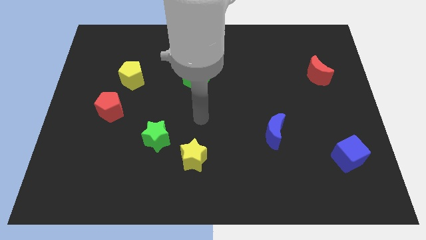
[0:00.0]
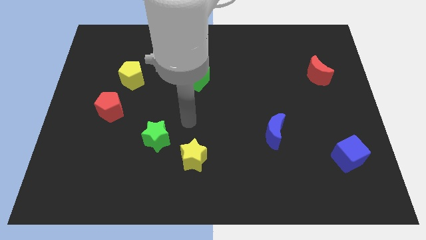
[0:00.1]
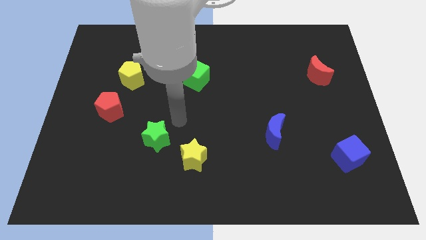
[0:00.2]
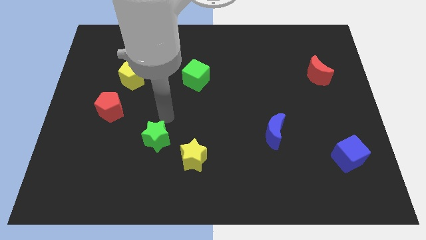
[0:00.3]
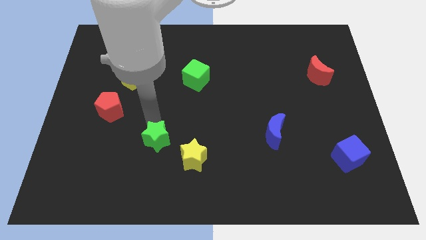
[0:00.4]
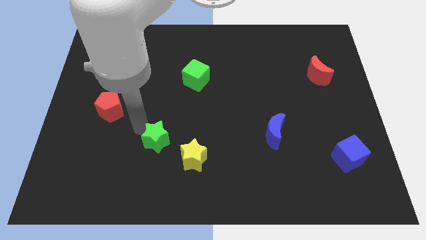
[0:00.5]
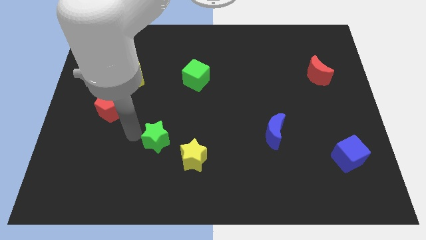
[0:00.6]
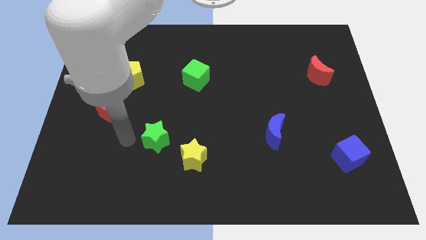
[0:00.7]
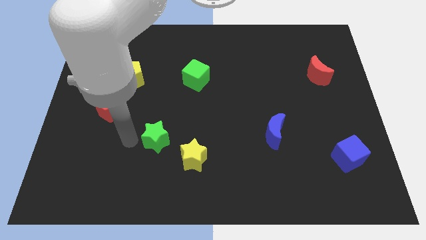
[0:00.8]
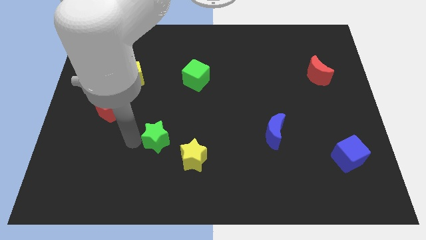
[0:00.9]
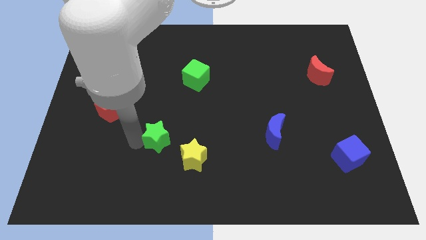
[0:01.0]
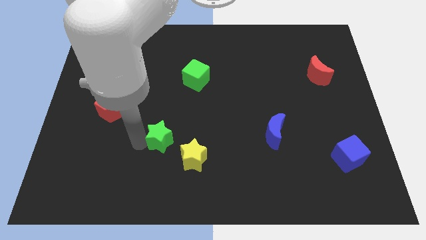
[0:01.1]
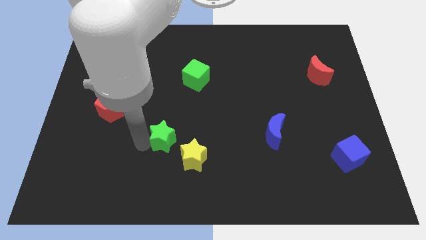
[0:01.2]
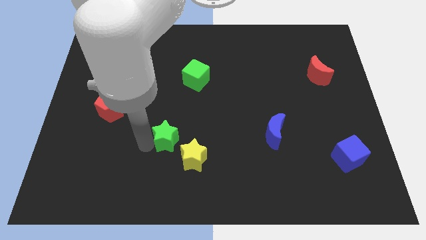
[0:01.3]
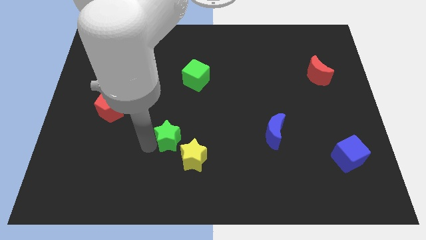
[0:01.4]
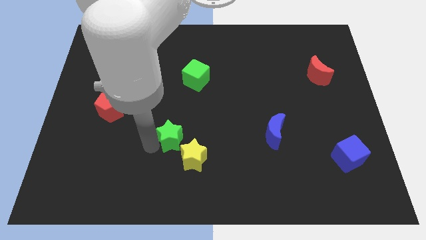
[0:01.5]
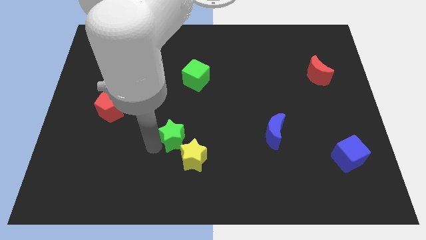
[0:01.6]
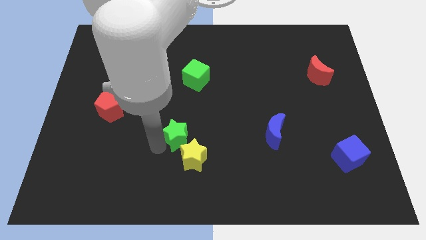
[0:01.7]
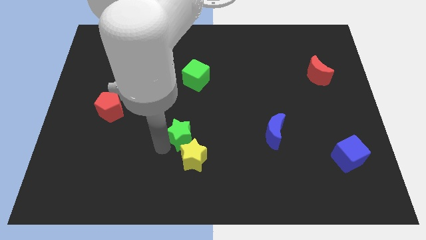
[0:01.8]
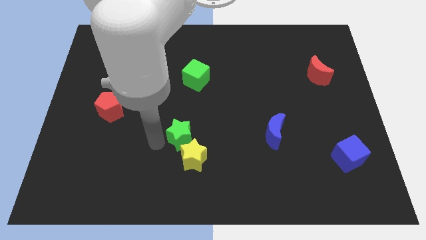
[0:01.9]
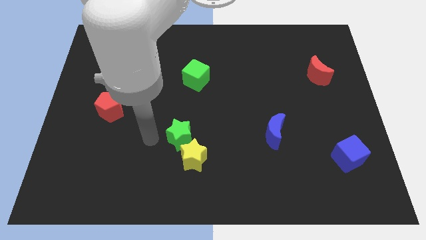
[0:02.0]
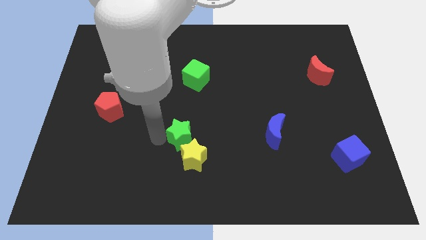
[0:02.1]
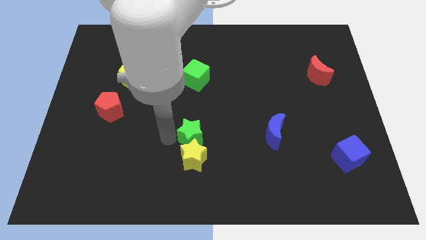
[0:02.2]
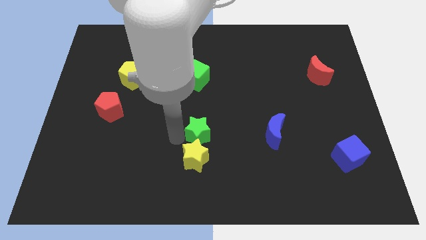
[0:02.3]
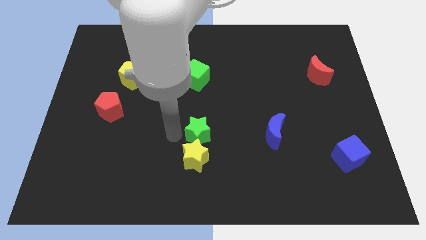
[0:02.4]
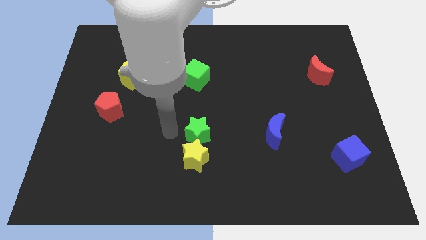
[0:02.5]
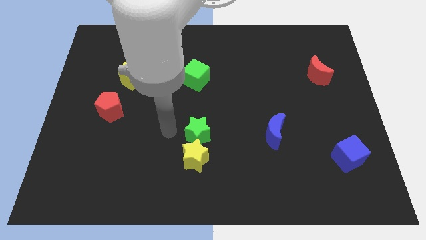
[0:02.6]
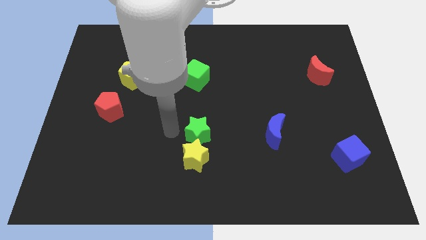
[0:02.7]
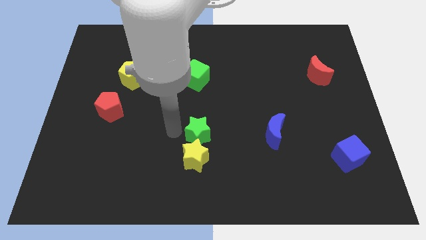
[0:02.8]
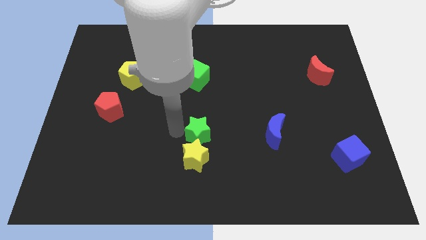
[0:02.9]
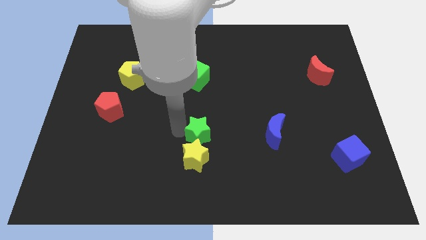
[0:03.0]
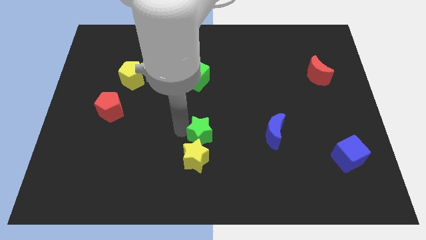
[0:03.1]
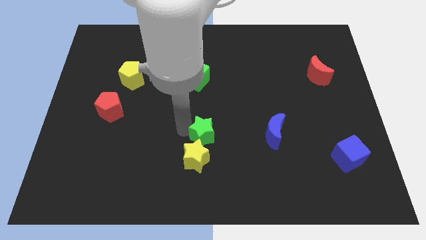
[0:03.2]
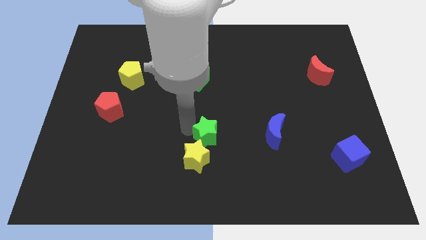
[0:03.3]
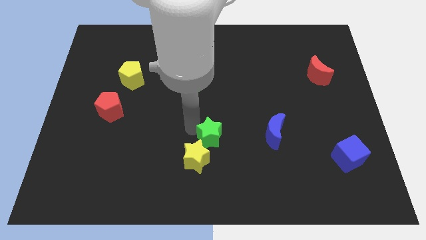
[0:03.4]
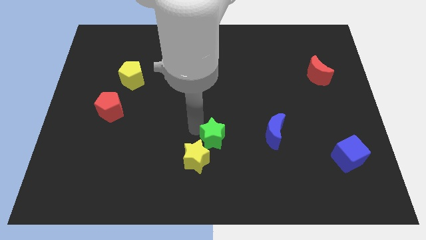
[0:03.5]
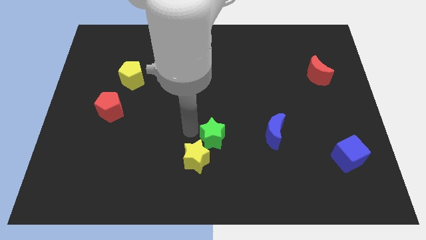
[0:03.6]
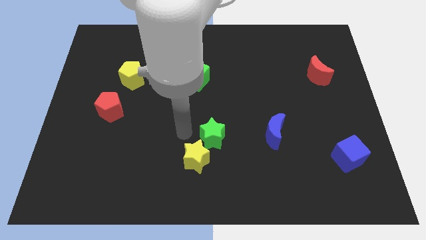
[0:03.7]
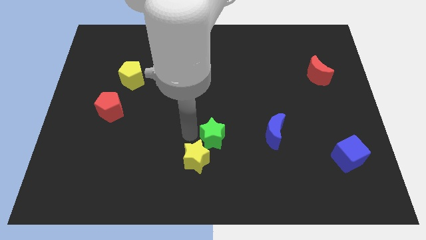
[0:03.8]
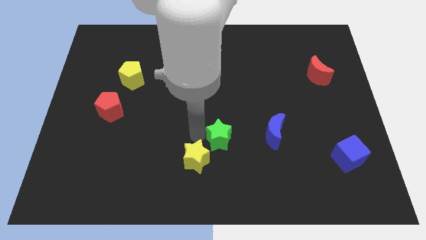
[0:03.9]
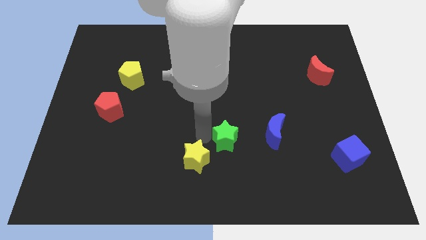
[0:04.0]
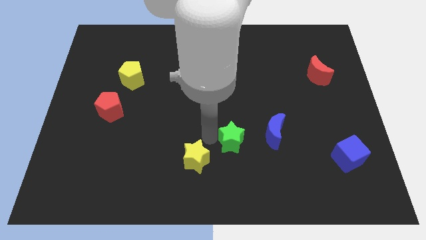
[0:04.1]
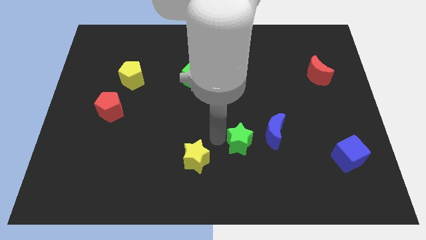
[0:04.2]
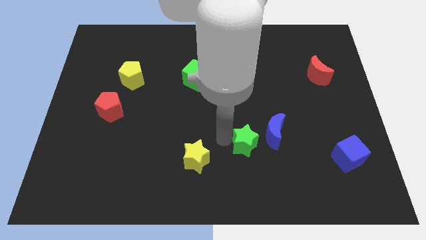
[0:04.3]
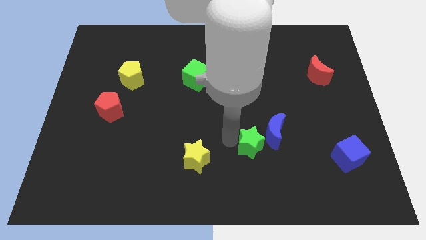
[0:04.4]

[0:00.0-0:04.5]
slide the green star right

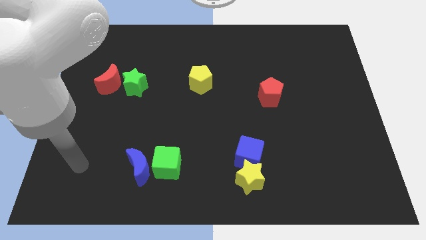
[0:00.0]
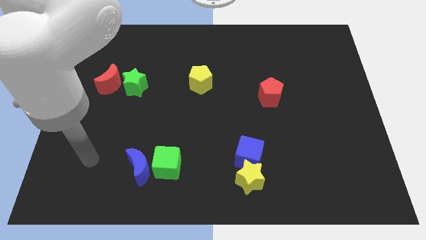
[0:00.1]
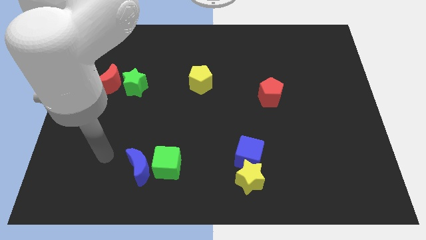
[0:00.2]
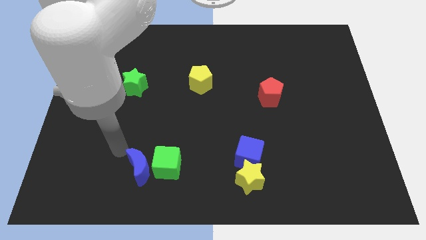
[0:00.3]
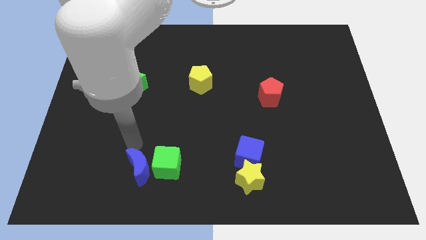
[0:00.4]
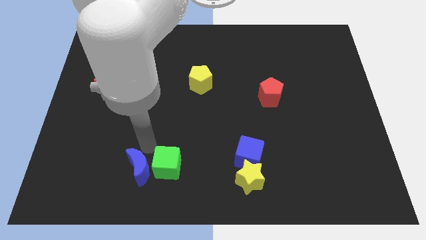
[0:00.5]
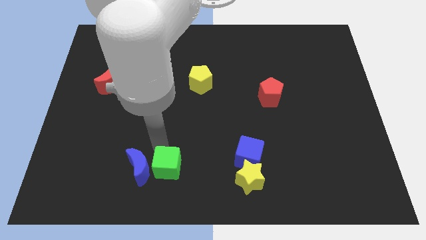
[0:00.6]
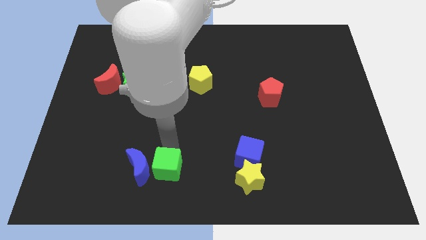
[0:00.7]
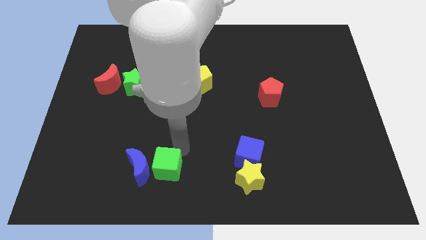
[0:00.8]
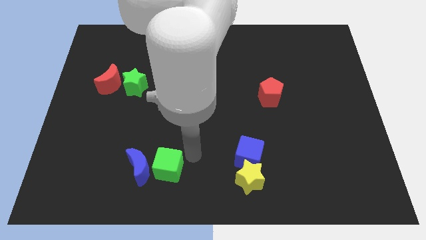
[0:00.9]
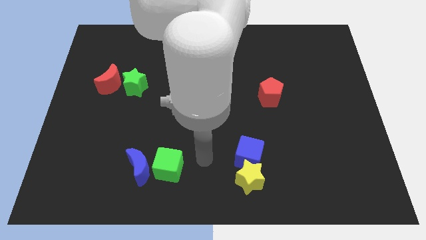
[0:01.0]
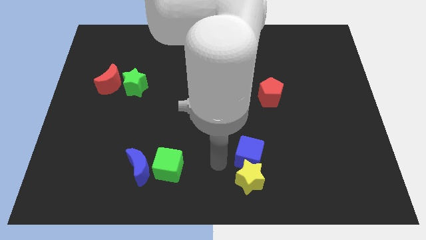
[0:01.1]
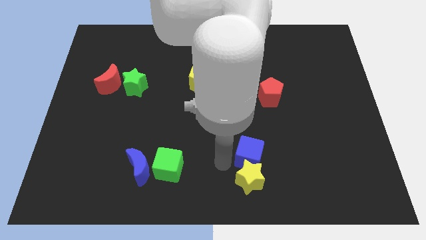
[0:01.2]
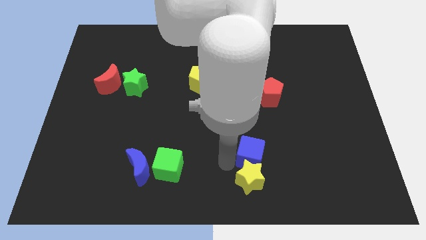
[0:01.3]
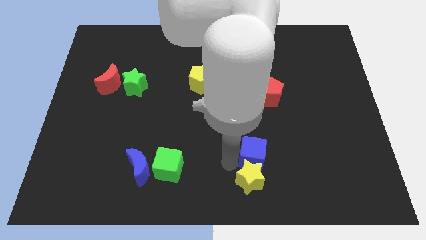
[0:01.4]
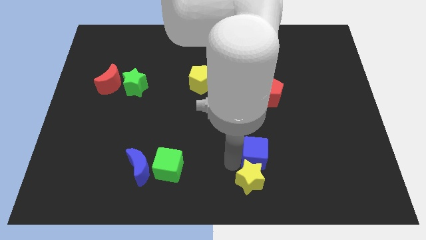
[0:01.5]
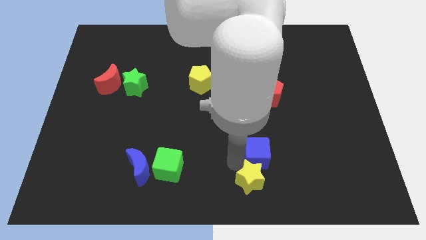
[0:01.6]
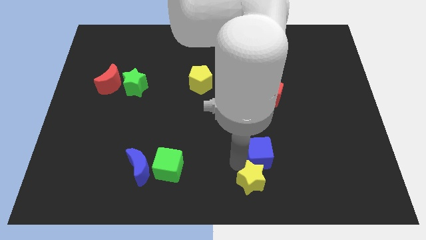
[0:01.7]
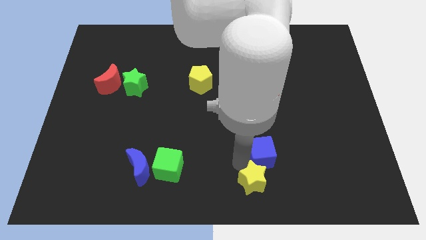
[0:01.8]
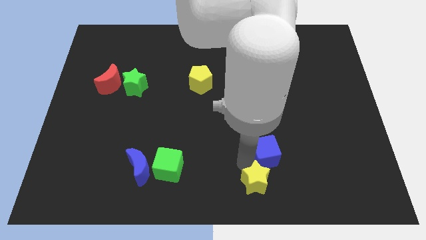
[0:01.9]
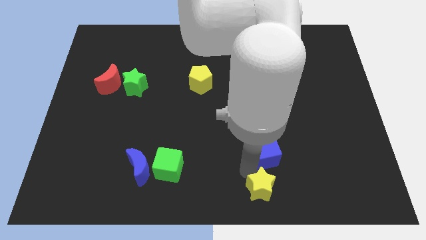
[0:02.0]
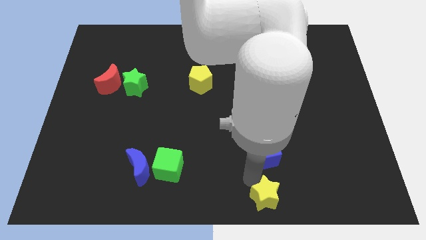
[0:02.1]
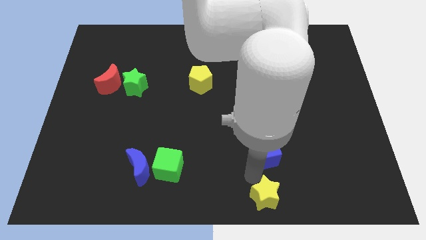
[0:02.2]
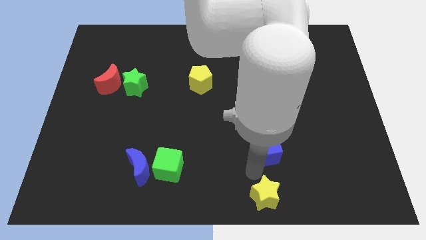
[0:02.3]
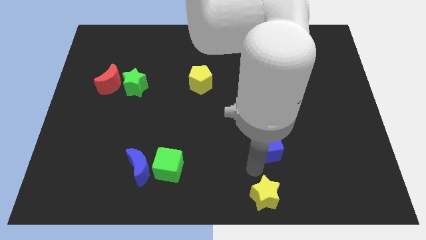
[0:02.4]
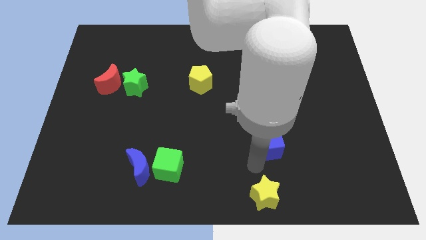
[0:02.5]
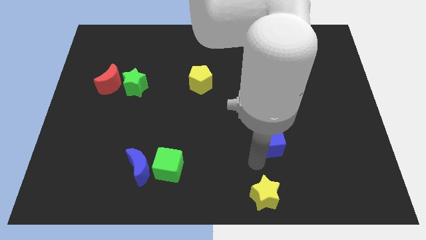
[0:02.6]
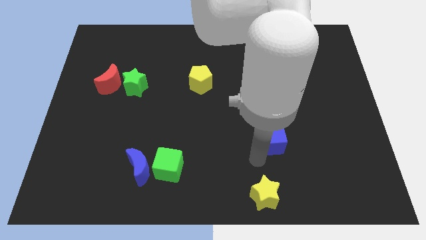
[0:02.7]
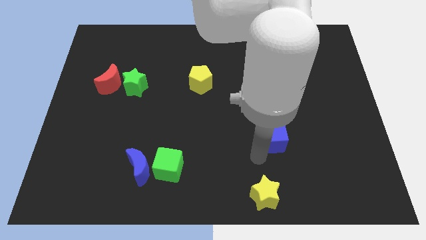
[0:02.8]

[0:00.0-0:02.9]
push the blue cube upwards and then to the right a little bit

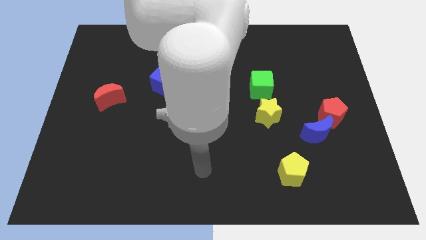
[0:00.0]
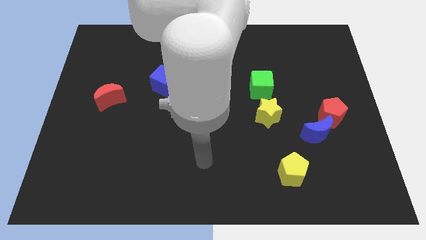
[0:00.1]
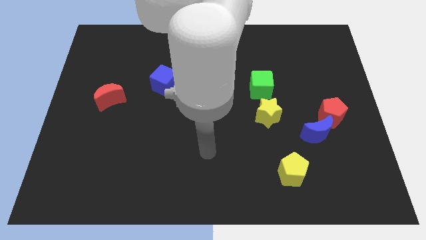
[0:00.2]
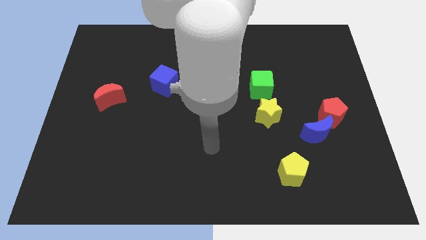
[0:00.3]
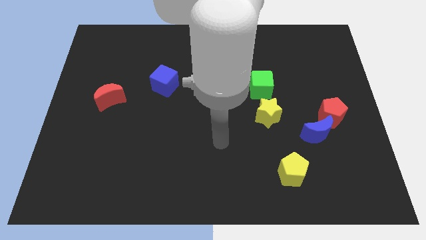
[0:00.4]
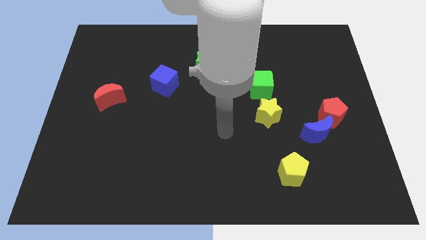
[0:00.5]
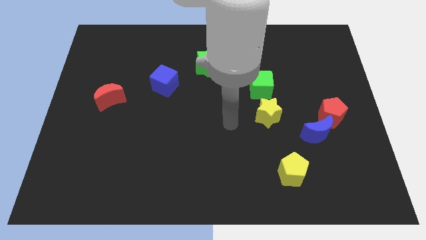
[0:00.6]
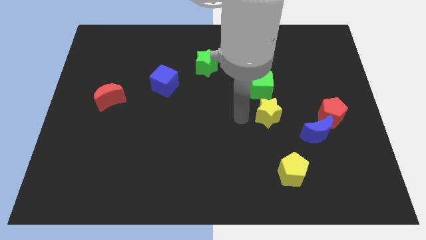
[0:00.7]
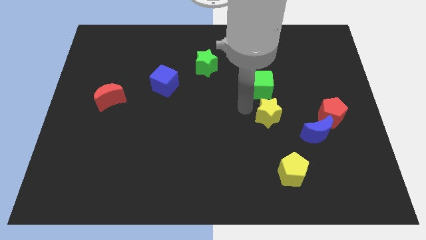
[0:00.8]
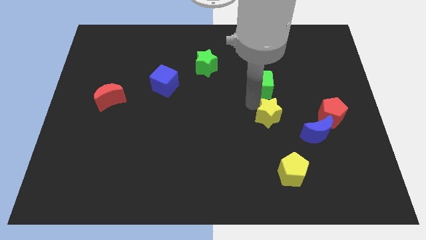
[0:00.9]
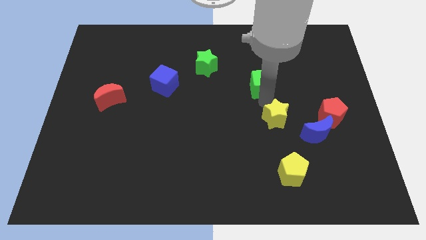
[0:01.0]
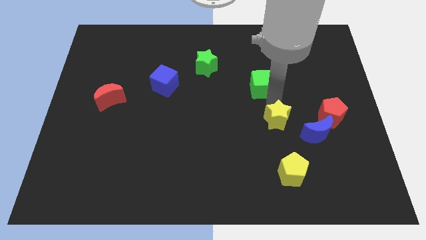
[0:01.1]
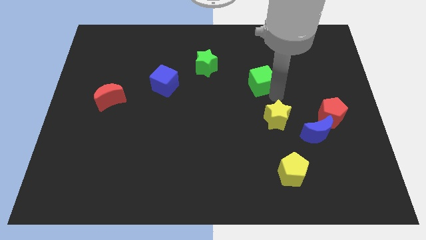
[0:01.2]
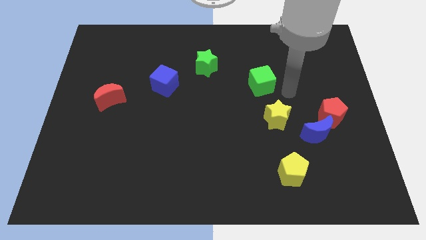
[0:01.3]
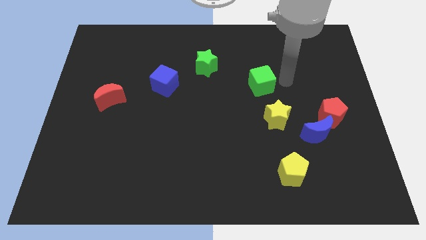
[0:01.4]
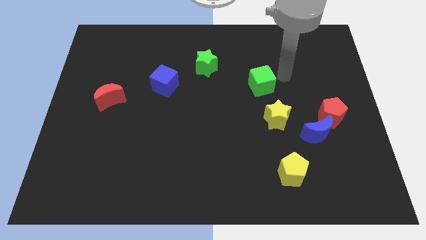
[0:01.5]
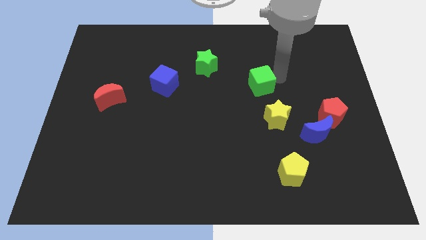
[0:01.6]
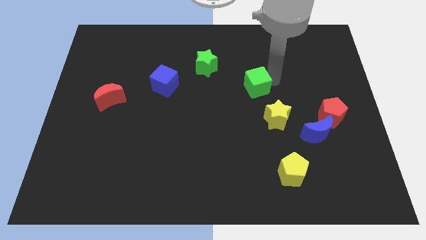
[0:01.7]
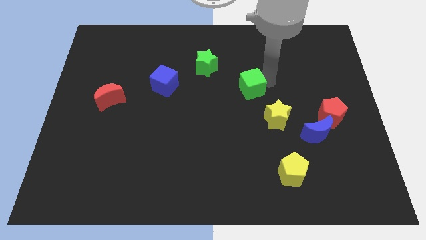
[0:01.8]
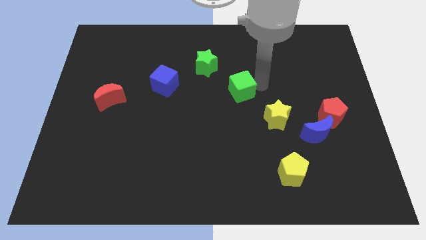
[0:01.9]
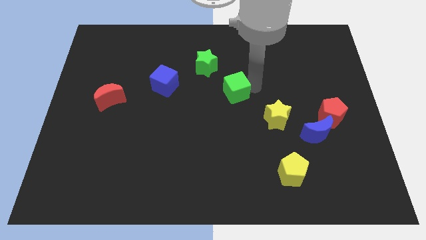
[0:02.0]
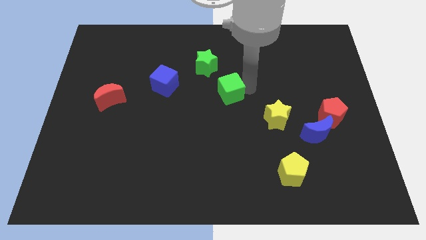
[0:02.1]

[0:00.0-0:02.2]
move the green cube to the left a little
